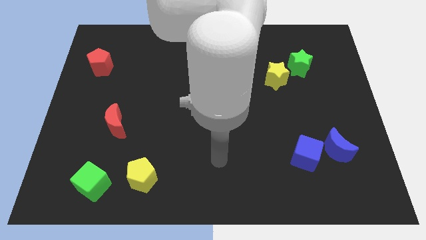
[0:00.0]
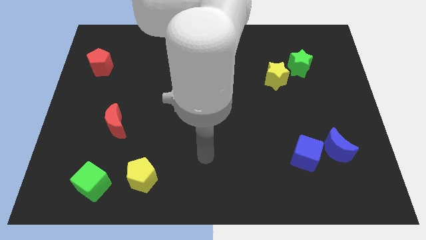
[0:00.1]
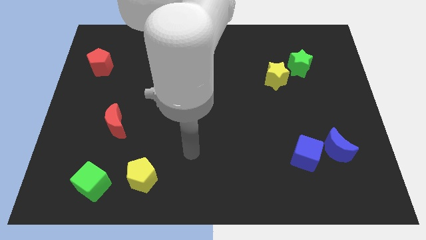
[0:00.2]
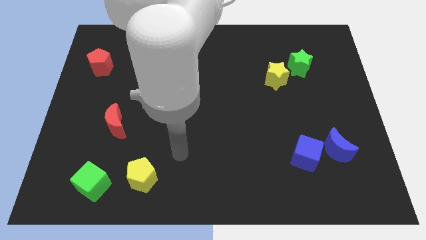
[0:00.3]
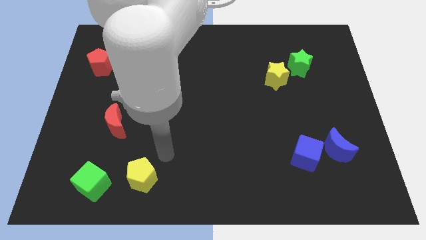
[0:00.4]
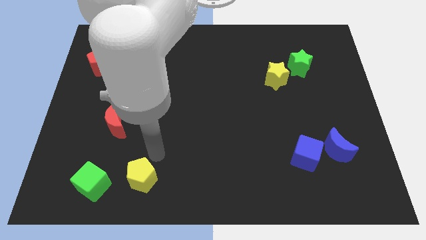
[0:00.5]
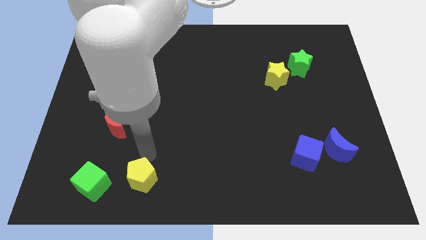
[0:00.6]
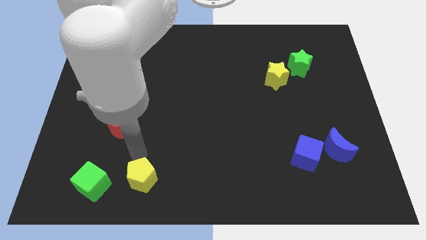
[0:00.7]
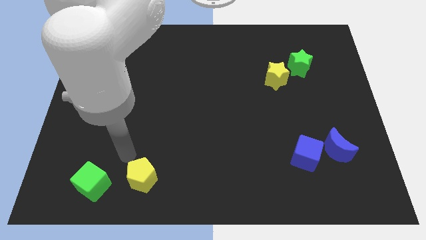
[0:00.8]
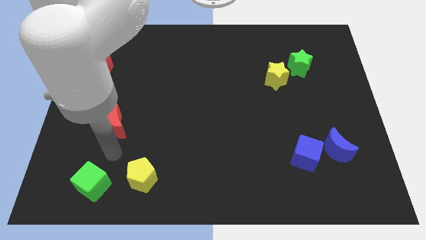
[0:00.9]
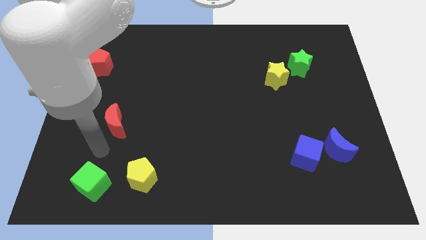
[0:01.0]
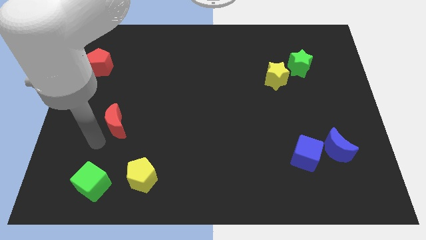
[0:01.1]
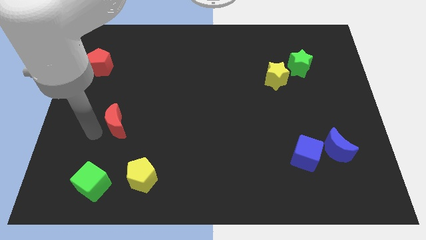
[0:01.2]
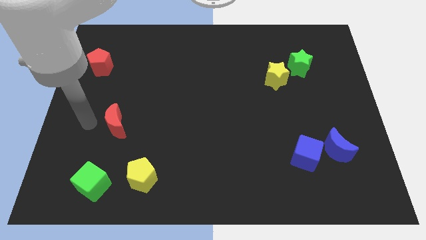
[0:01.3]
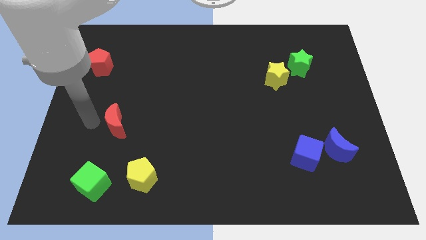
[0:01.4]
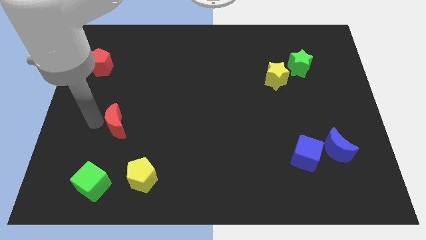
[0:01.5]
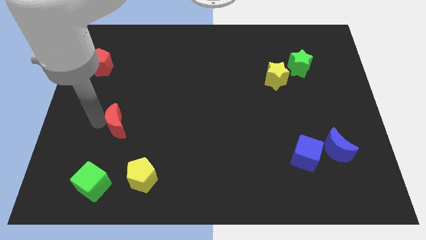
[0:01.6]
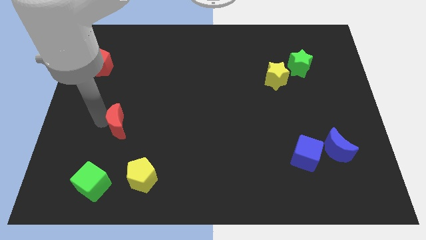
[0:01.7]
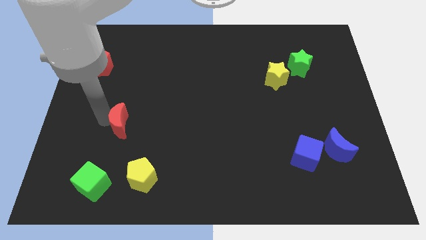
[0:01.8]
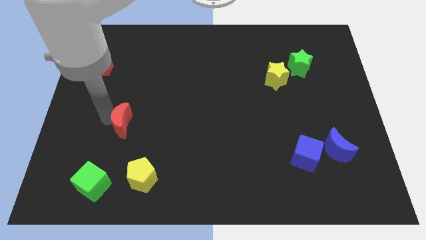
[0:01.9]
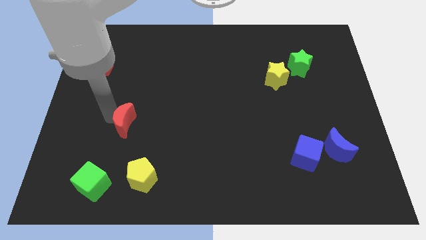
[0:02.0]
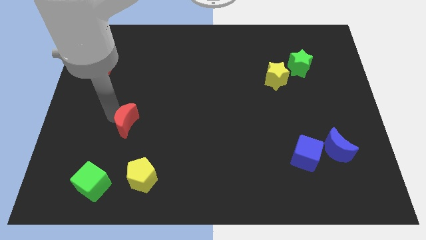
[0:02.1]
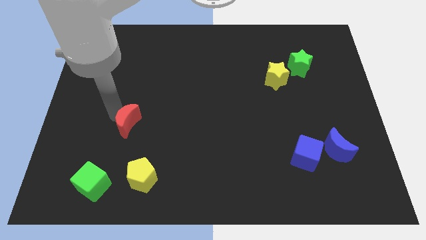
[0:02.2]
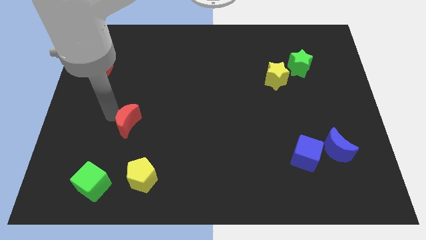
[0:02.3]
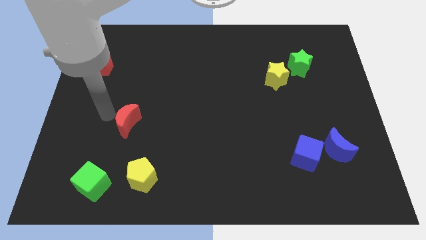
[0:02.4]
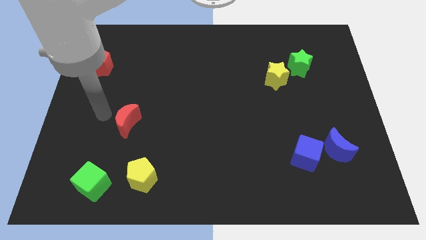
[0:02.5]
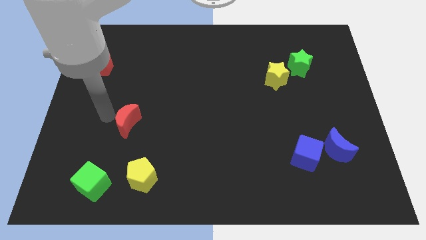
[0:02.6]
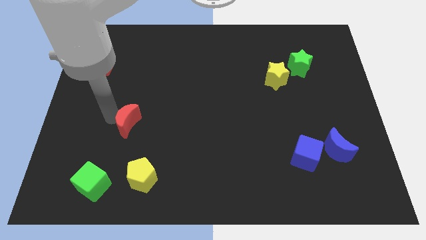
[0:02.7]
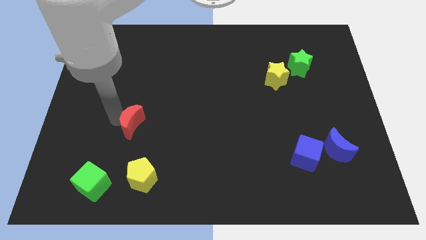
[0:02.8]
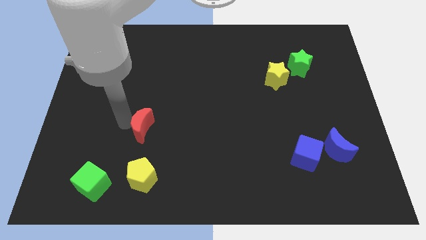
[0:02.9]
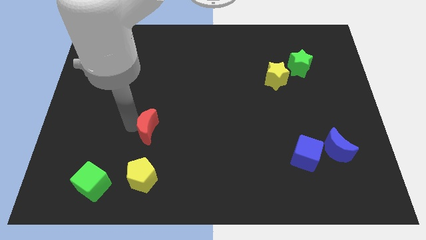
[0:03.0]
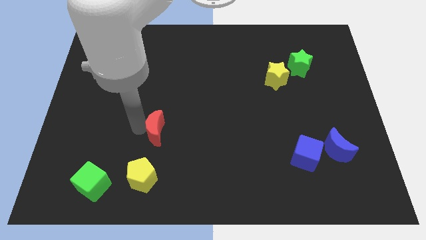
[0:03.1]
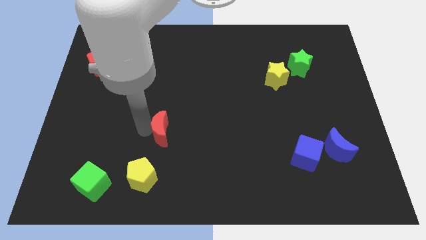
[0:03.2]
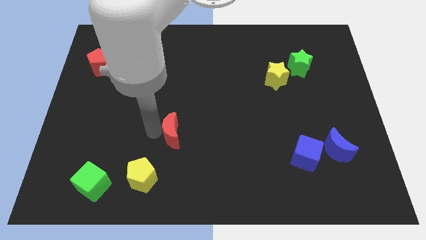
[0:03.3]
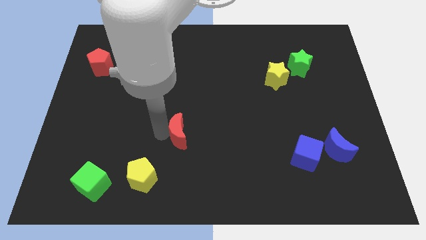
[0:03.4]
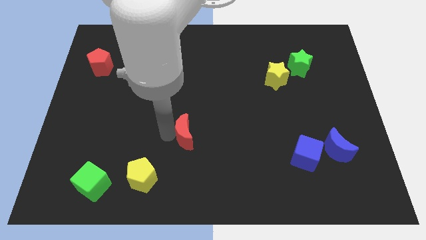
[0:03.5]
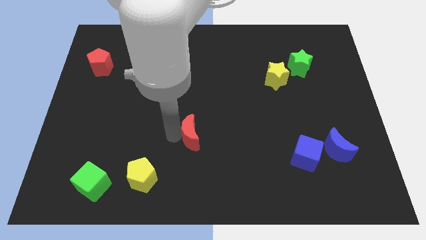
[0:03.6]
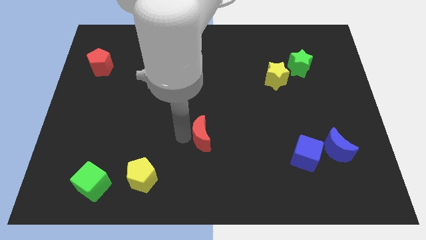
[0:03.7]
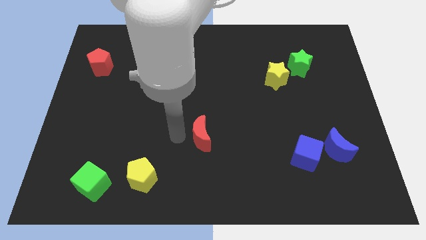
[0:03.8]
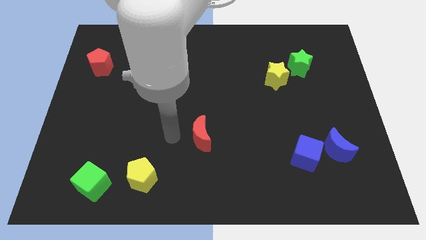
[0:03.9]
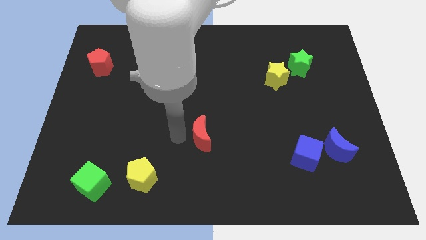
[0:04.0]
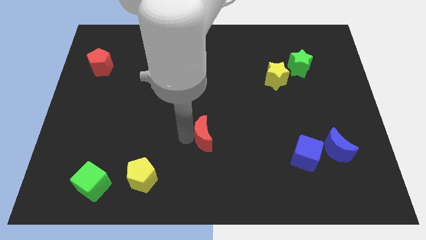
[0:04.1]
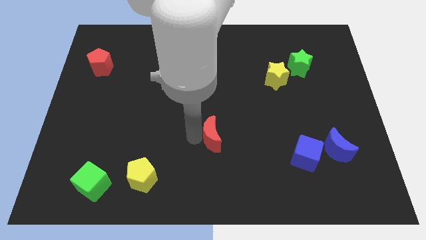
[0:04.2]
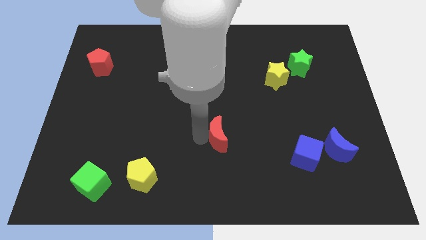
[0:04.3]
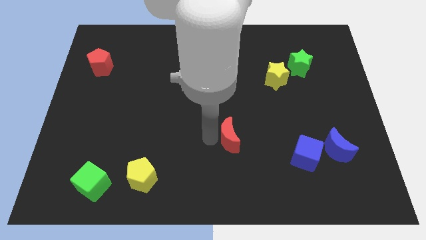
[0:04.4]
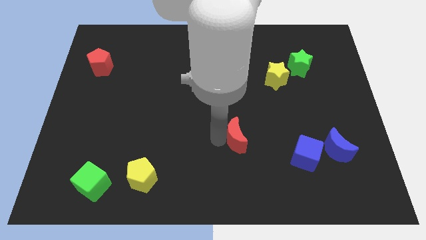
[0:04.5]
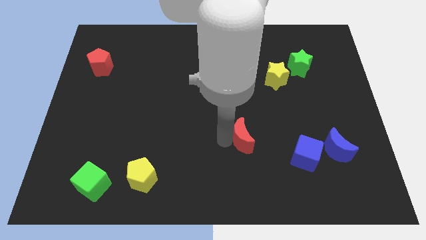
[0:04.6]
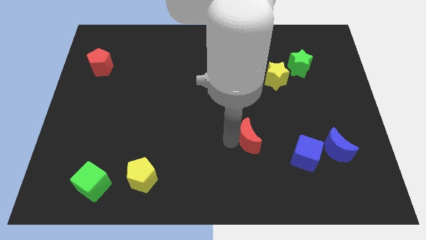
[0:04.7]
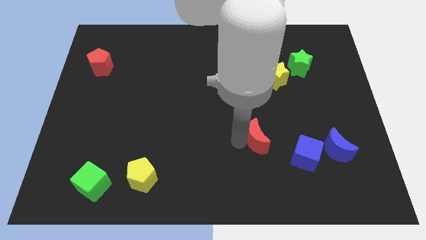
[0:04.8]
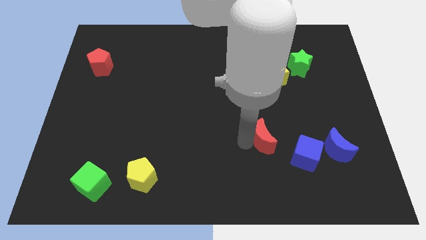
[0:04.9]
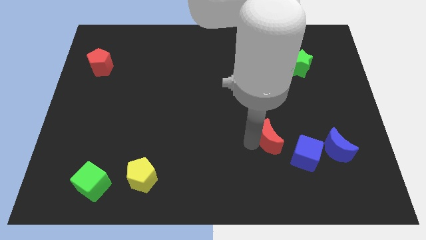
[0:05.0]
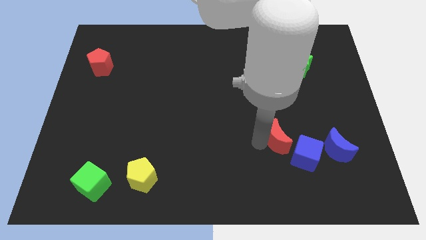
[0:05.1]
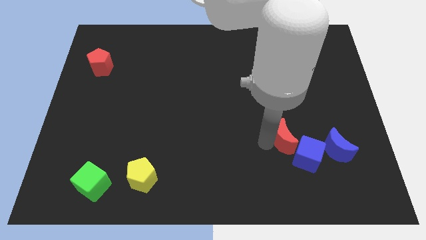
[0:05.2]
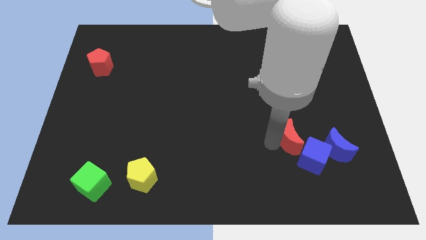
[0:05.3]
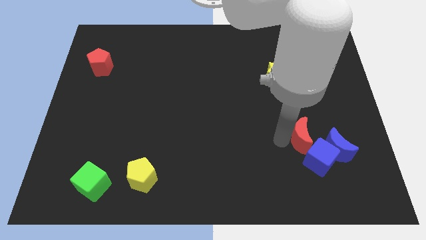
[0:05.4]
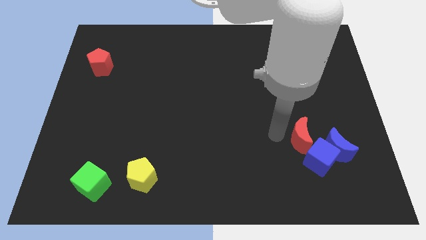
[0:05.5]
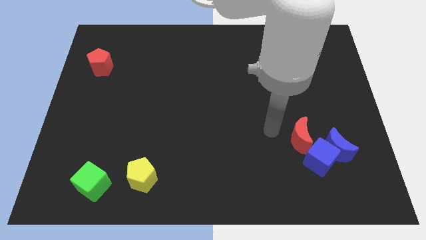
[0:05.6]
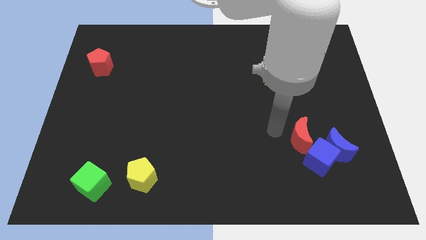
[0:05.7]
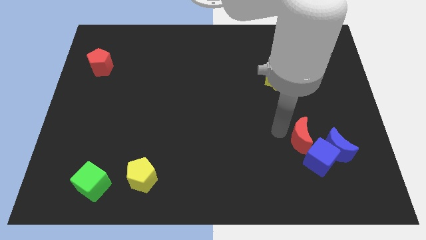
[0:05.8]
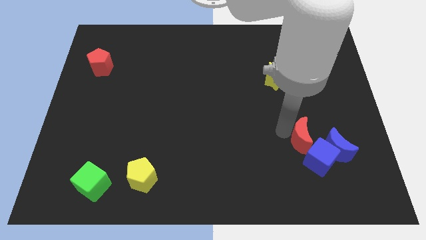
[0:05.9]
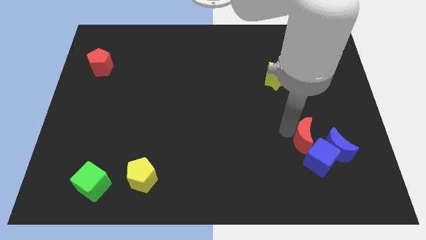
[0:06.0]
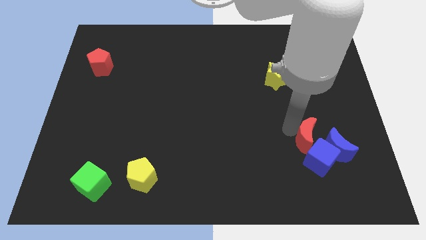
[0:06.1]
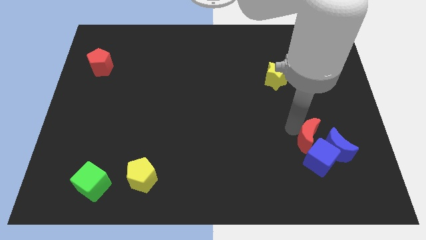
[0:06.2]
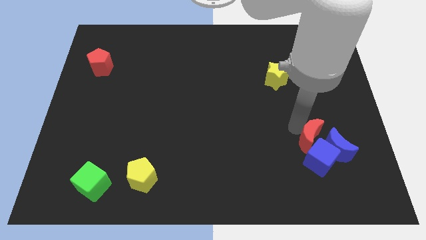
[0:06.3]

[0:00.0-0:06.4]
push the red moon close to the blue moon
